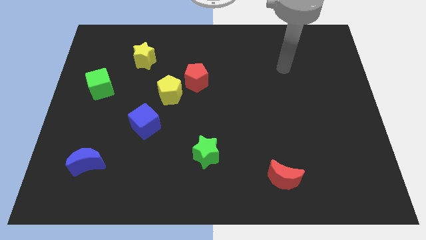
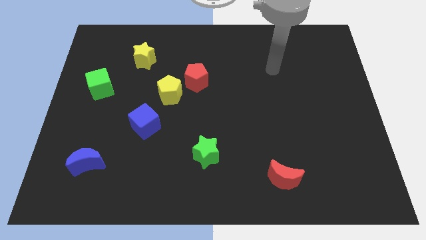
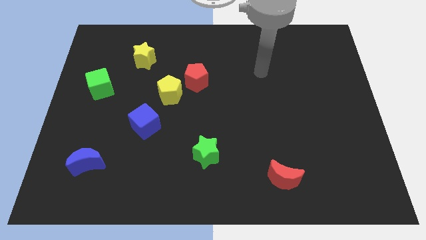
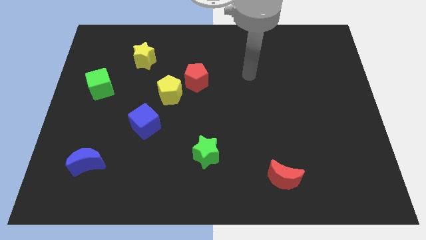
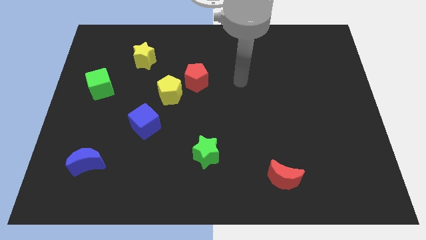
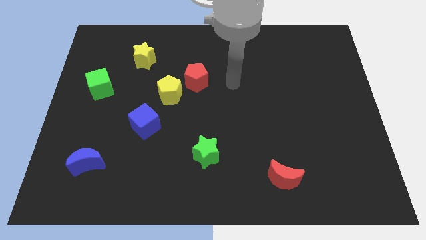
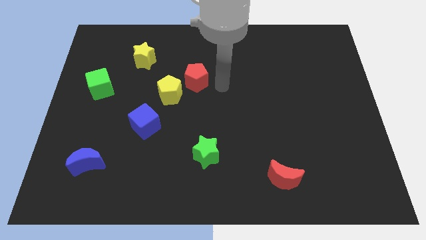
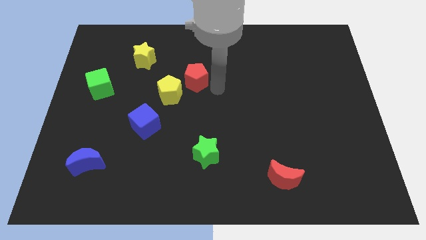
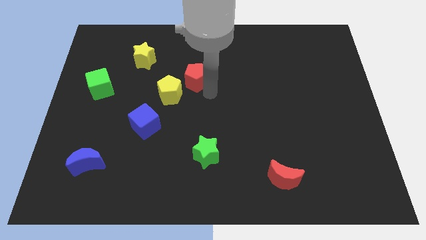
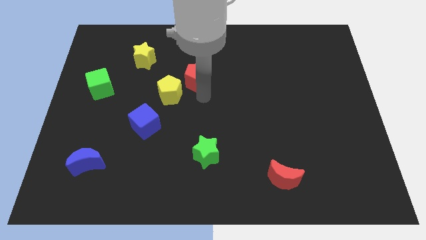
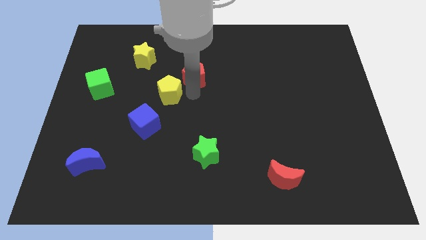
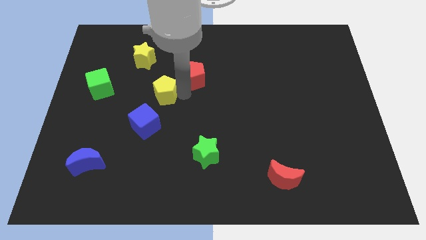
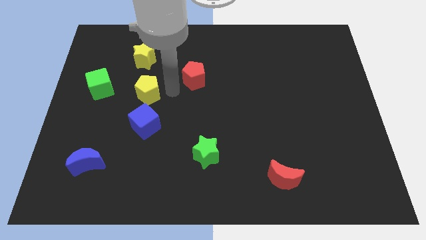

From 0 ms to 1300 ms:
move the red pentagon away from the yellow pentagon

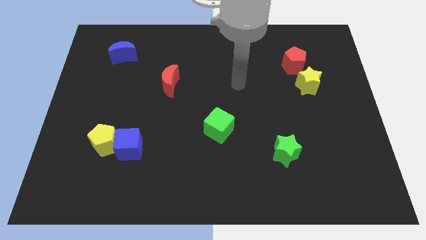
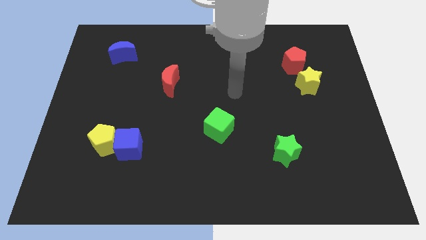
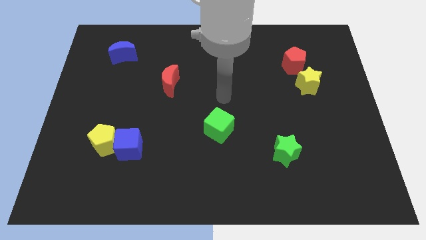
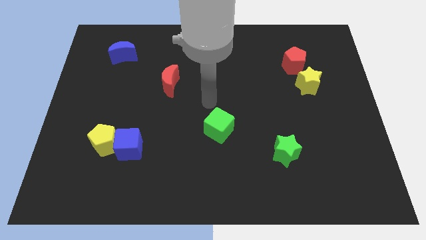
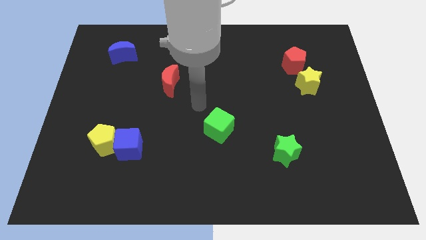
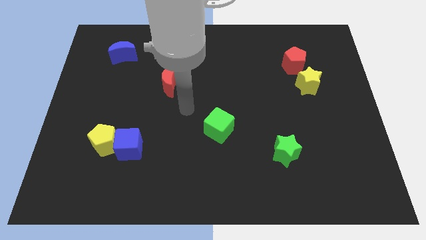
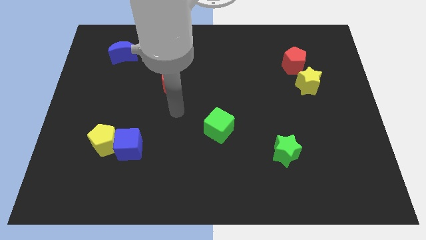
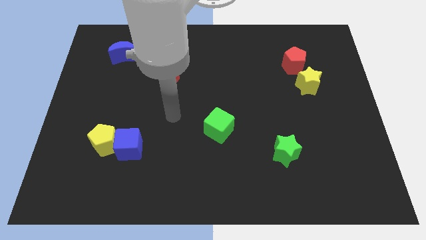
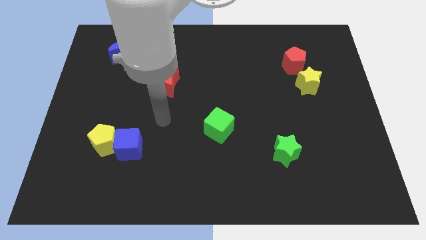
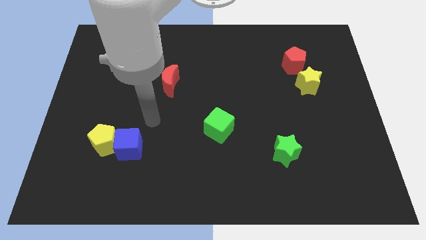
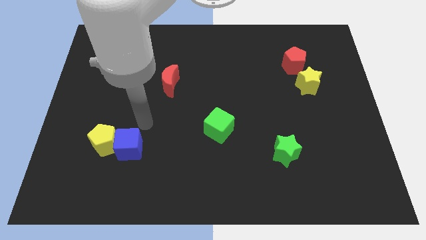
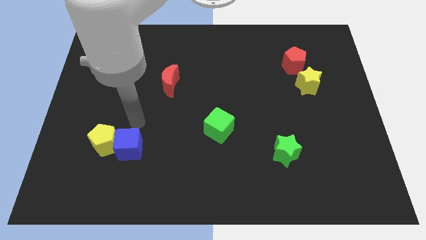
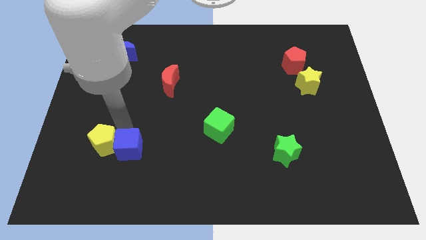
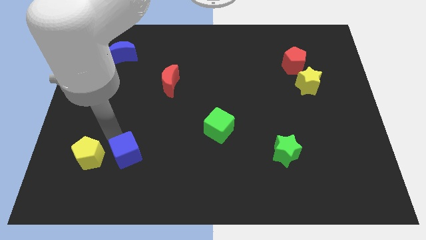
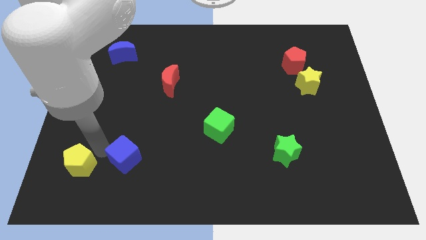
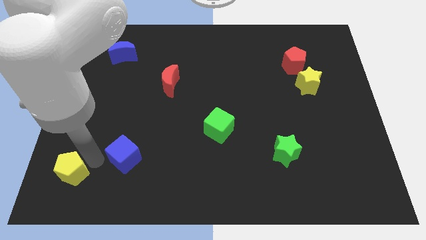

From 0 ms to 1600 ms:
pull the blue cube apart from the yellow pentagon

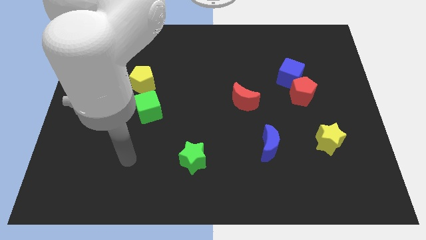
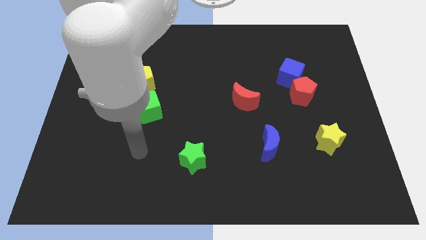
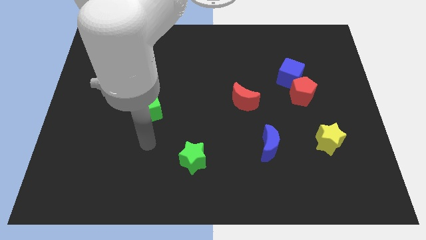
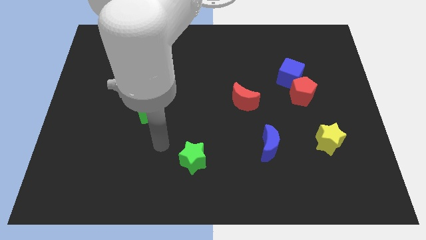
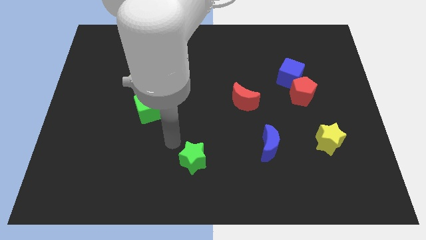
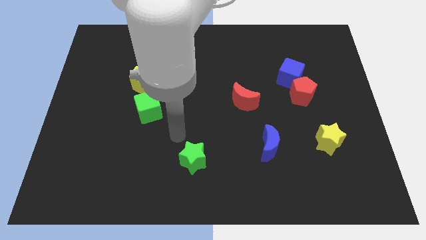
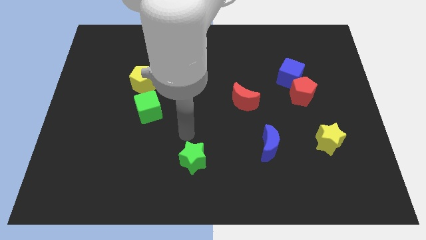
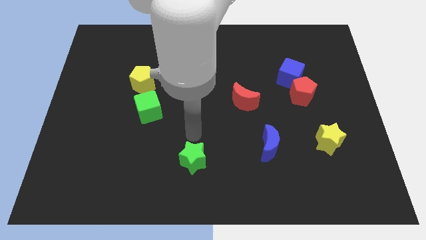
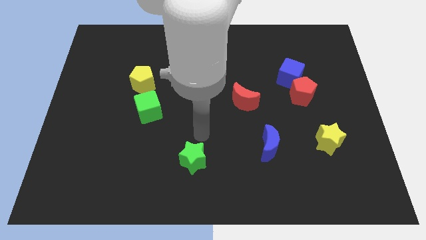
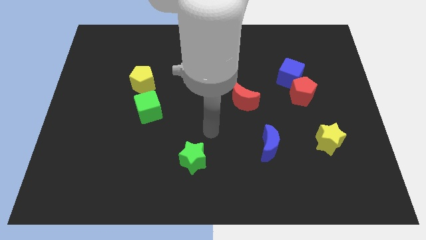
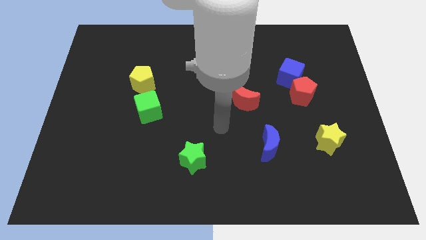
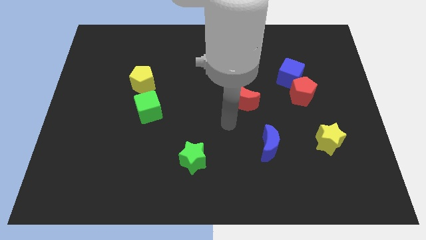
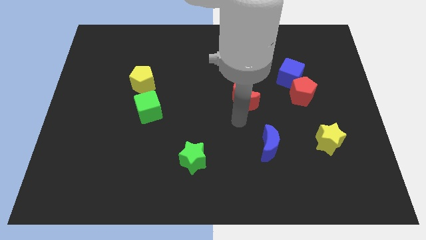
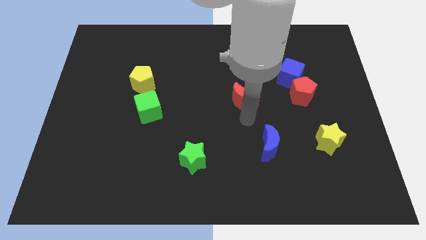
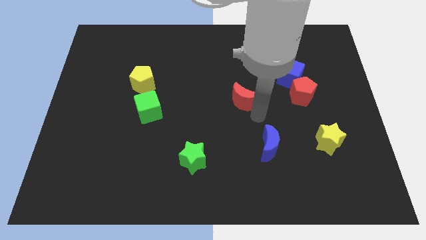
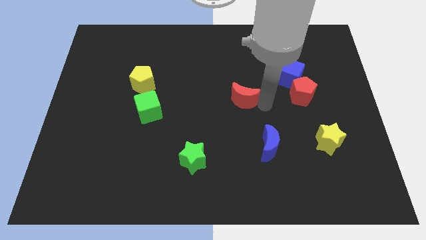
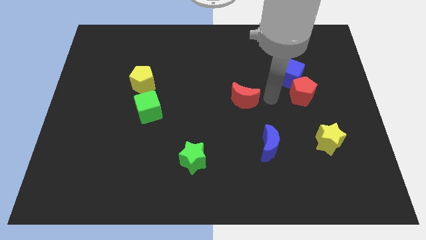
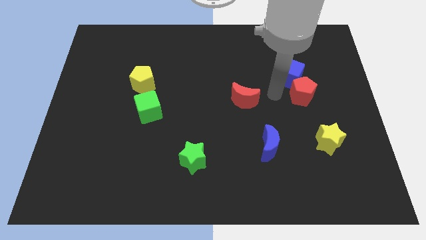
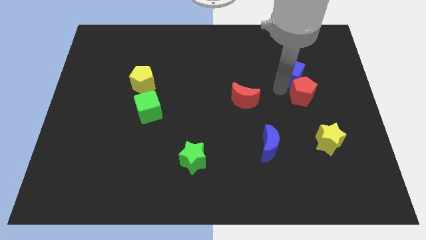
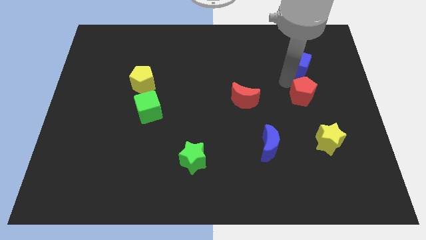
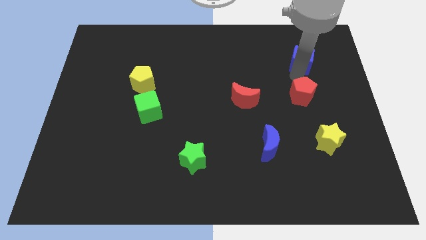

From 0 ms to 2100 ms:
pull the red pentagon apart from the blue cube

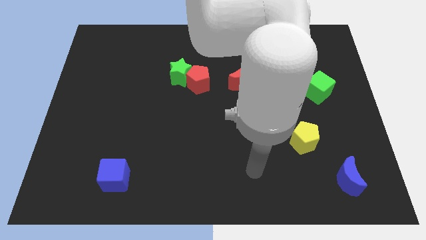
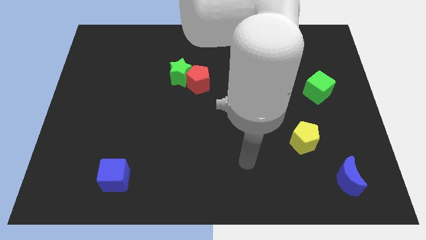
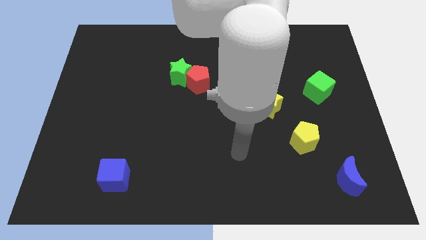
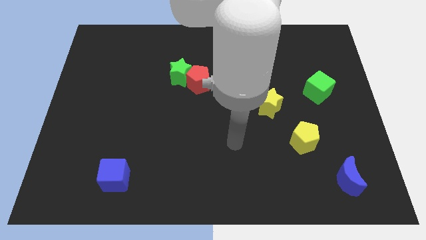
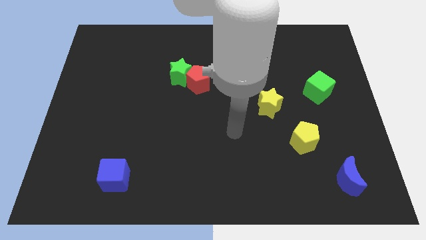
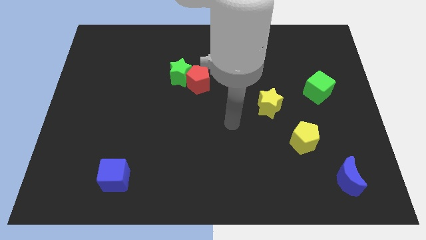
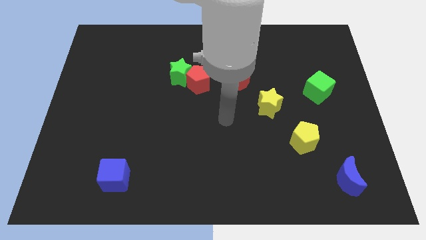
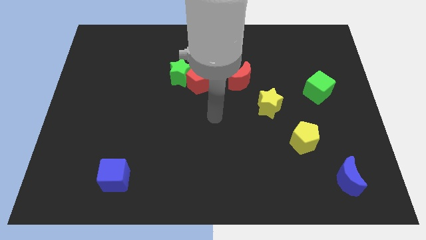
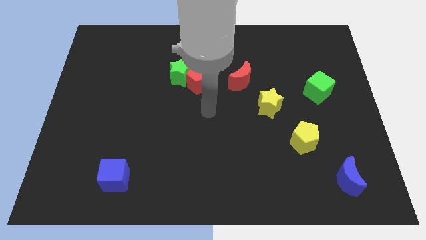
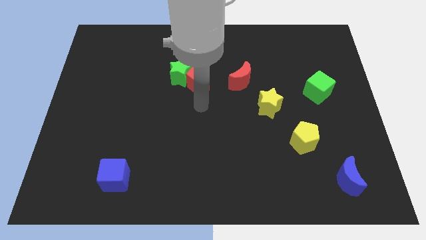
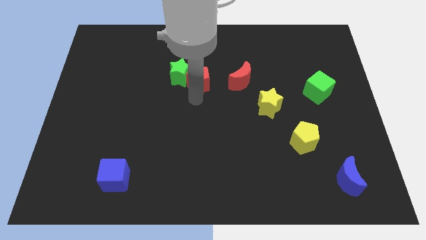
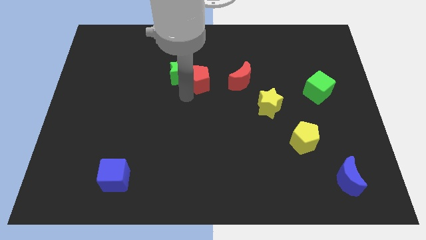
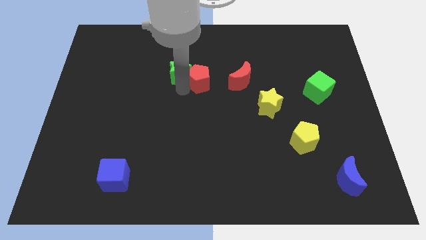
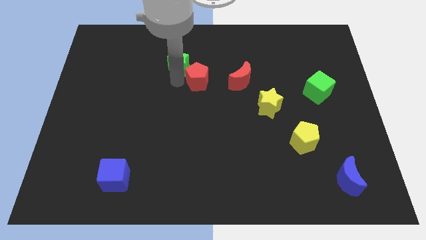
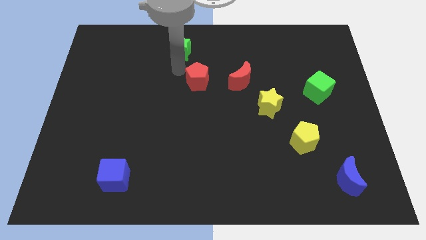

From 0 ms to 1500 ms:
separate the red pentagon from the green star

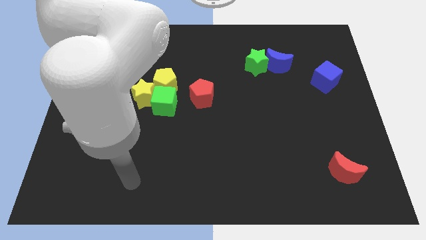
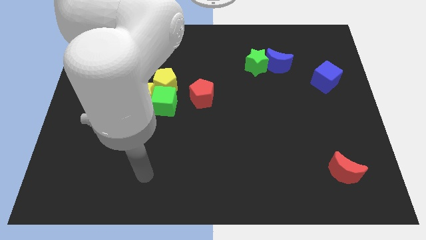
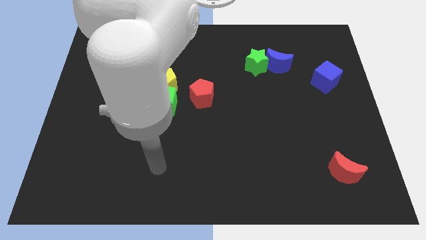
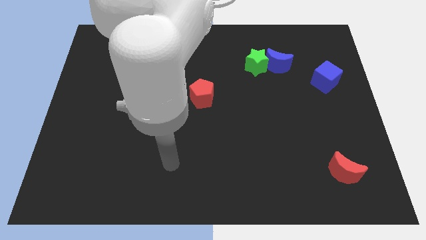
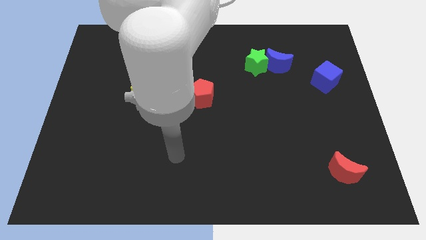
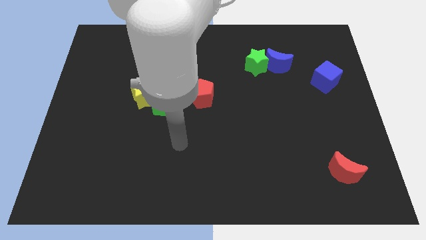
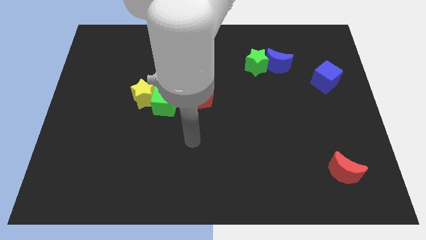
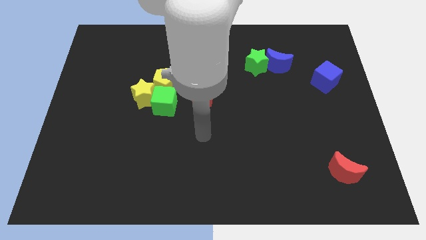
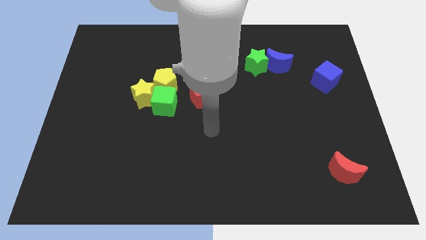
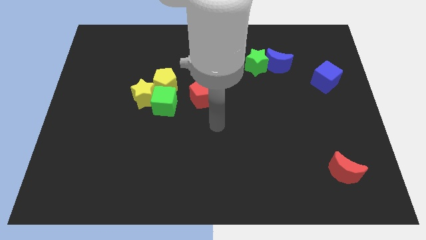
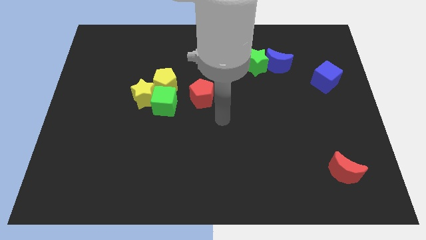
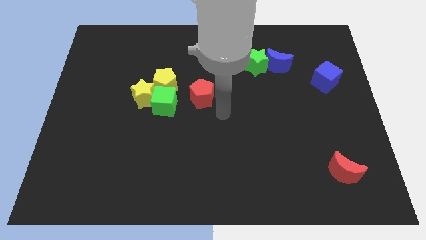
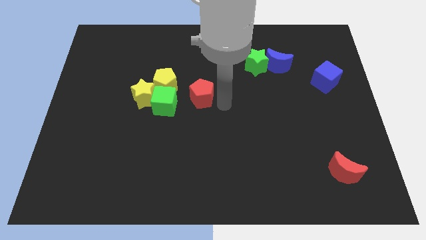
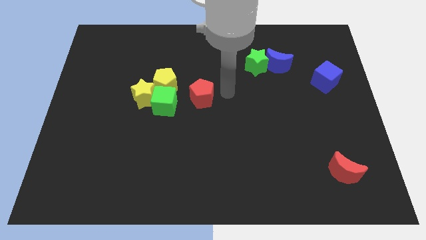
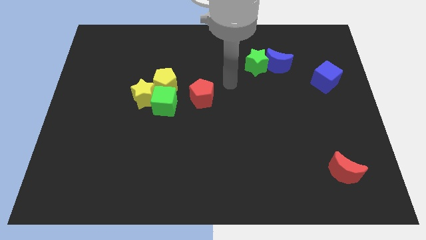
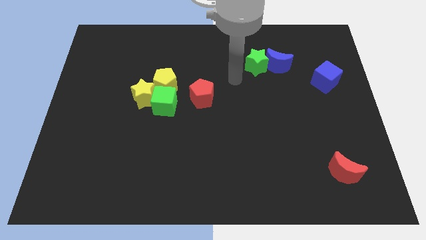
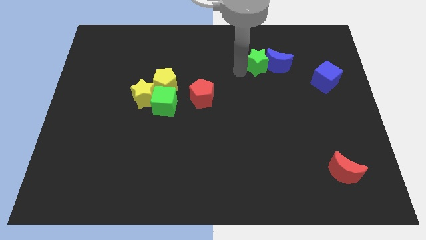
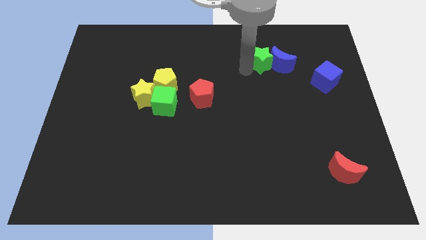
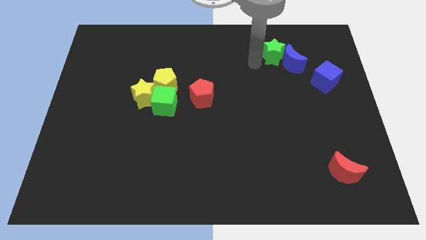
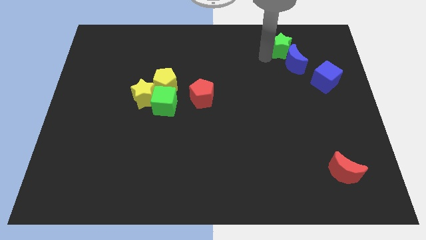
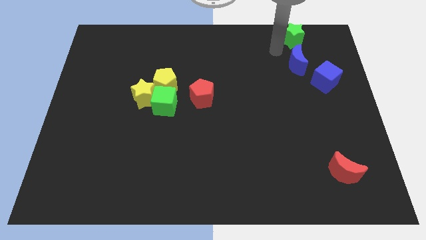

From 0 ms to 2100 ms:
move the blue moon away from the green star

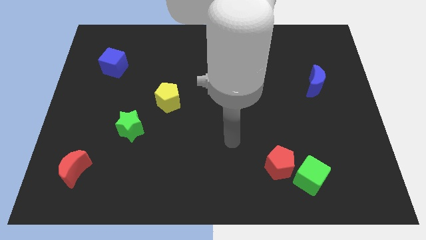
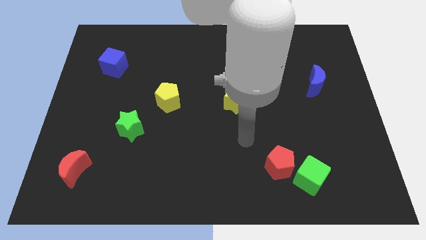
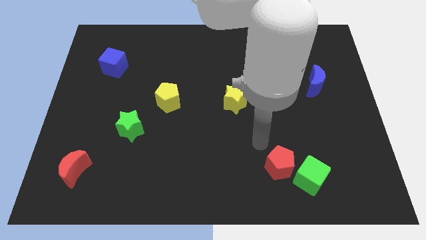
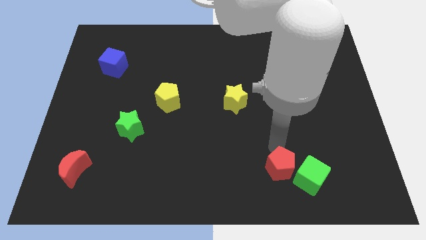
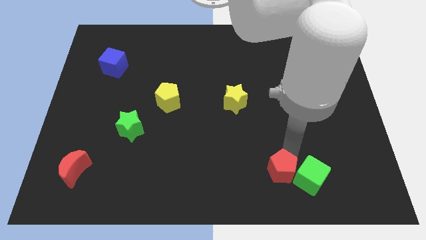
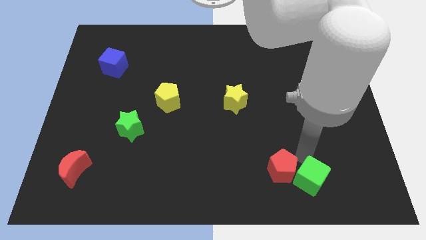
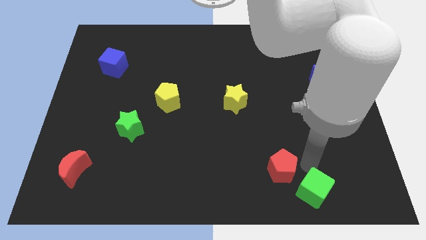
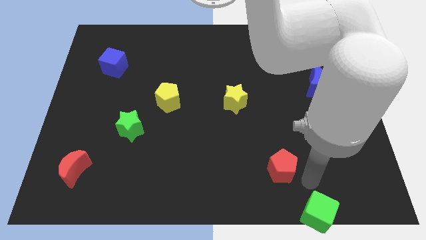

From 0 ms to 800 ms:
move the red pentagon away from the green cube
